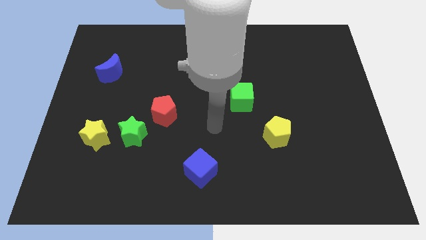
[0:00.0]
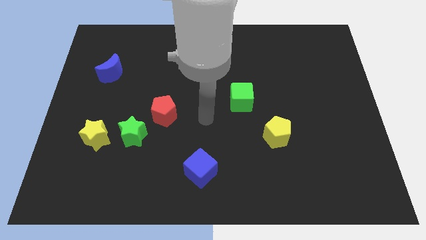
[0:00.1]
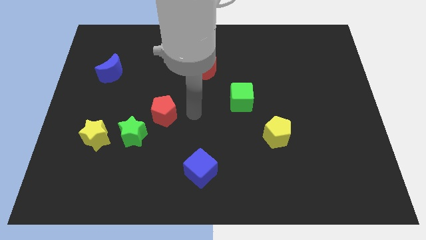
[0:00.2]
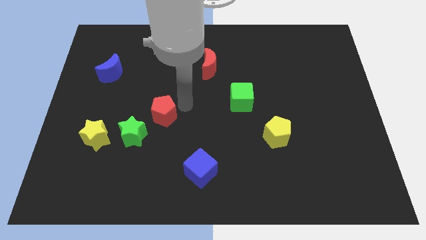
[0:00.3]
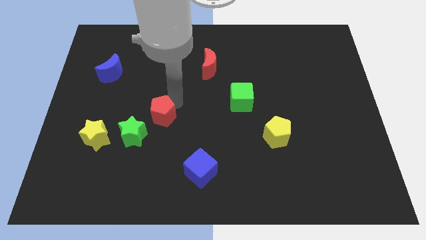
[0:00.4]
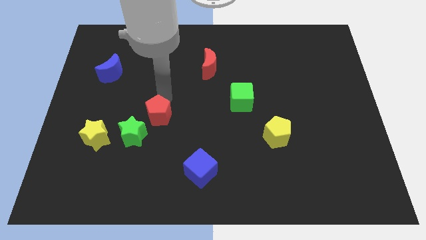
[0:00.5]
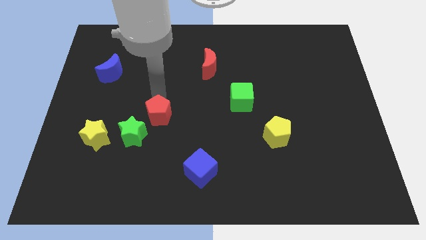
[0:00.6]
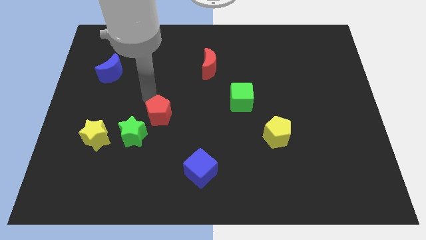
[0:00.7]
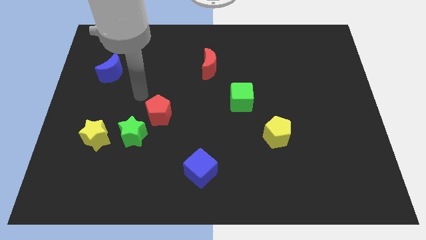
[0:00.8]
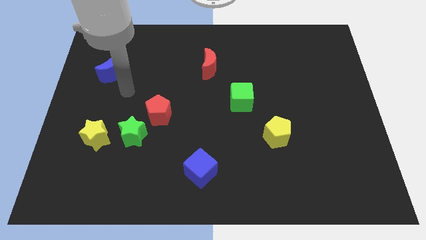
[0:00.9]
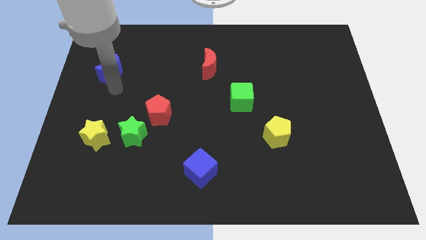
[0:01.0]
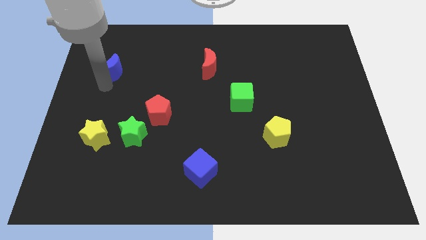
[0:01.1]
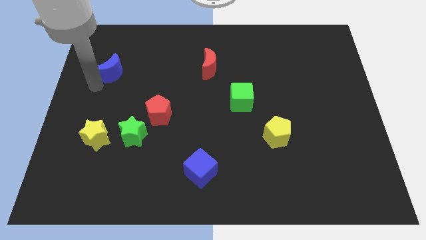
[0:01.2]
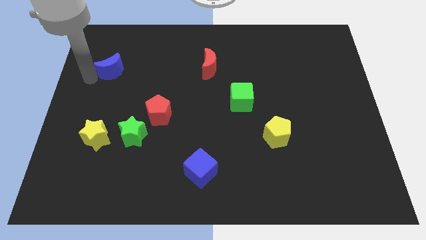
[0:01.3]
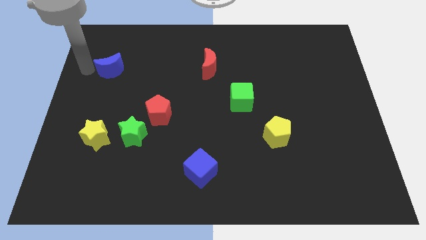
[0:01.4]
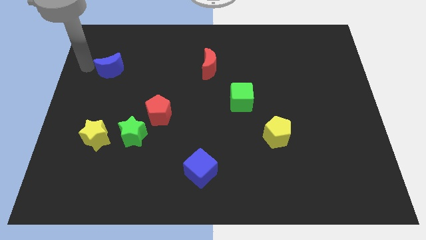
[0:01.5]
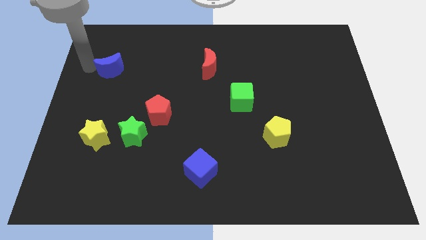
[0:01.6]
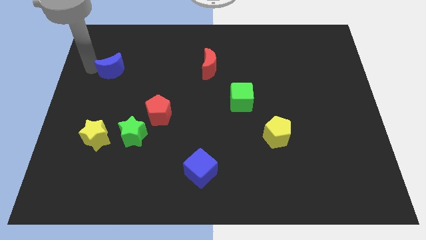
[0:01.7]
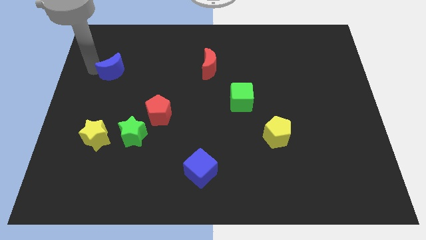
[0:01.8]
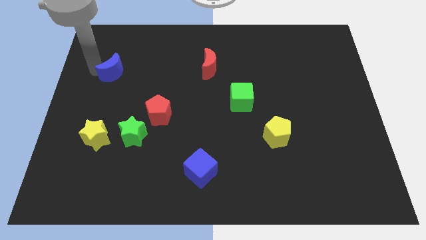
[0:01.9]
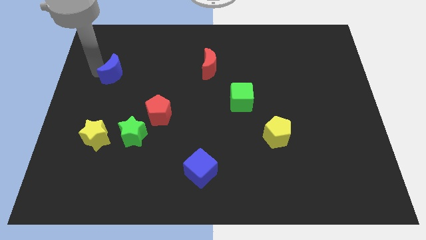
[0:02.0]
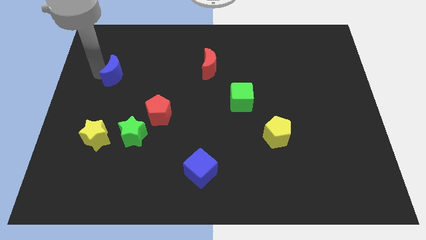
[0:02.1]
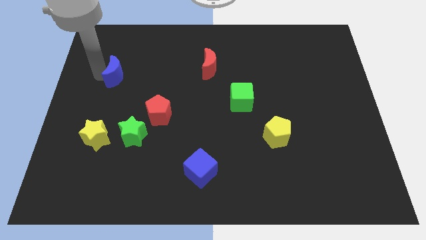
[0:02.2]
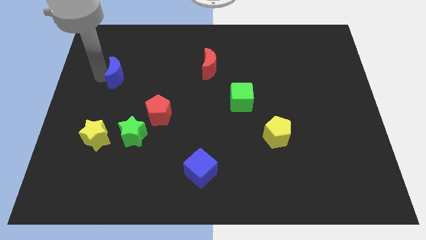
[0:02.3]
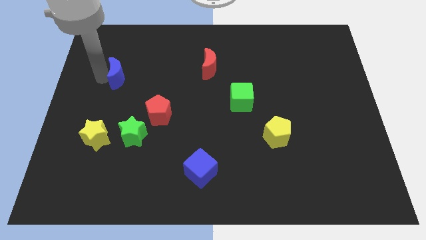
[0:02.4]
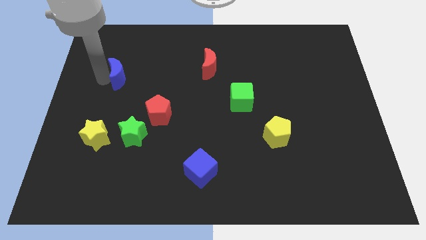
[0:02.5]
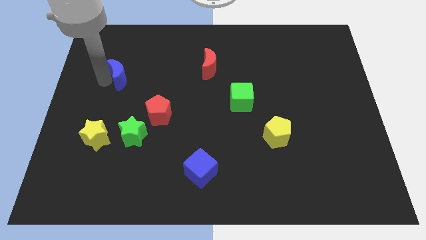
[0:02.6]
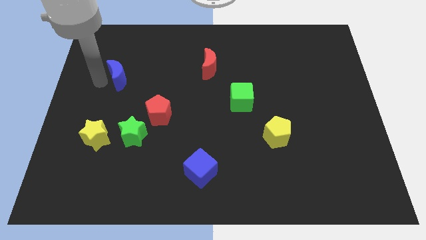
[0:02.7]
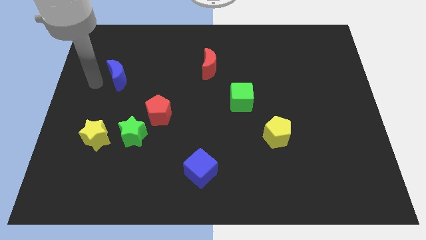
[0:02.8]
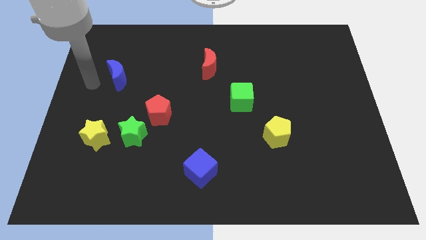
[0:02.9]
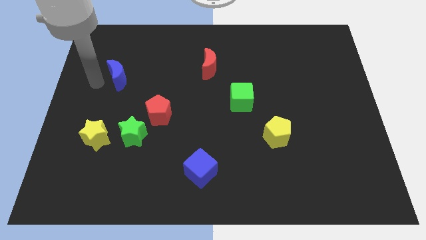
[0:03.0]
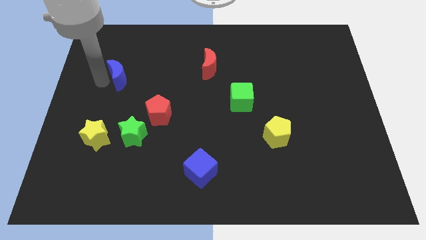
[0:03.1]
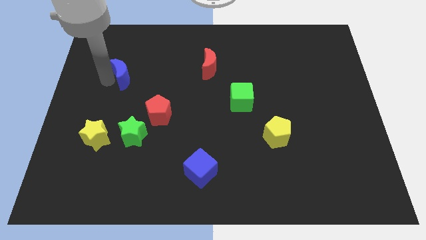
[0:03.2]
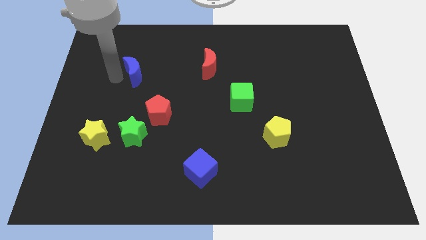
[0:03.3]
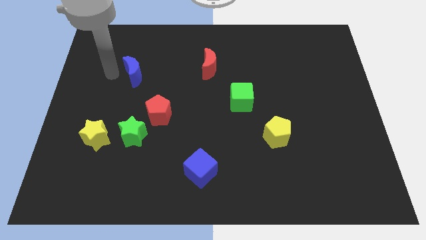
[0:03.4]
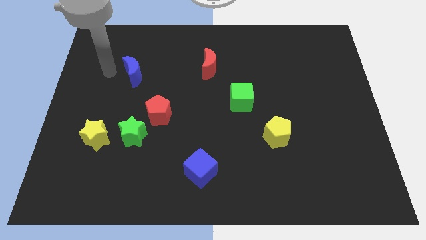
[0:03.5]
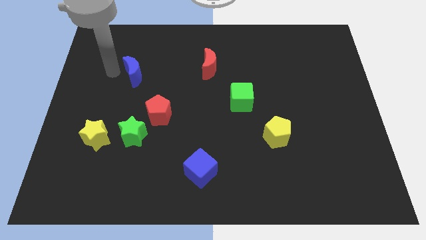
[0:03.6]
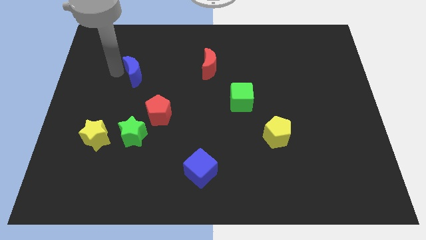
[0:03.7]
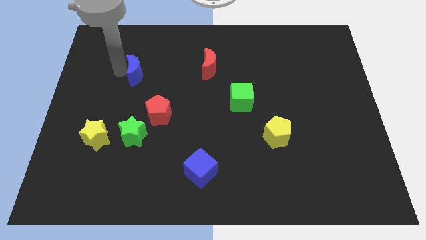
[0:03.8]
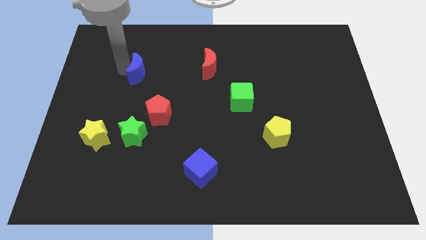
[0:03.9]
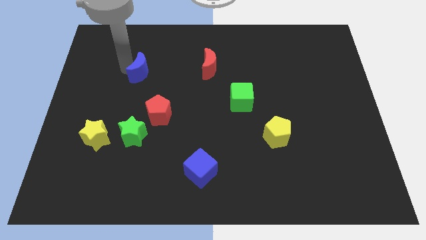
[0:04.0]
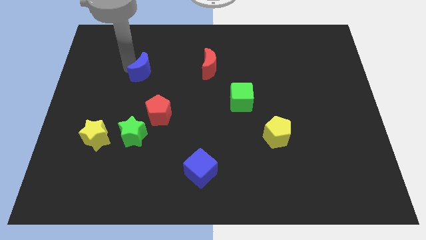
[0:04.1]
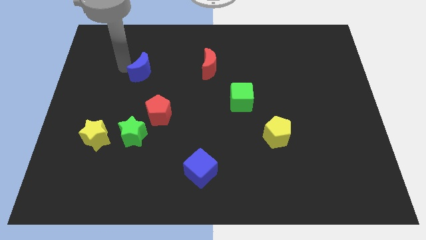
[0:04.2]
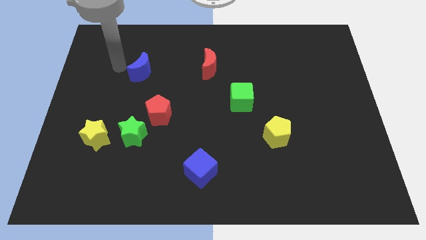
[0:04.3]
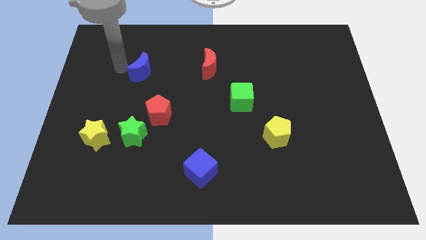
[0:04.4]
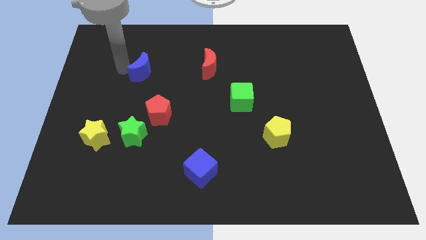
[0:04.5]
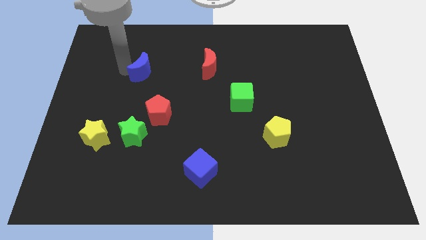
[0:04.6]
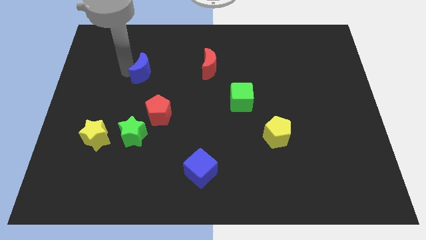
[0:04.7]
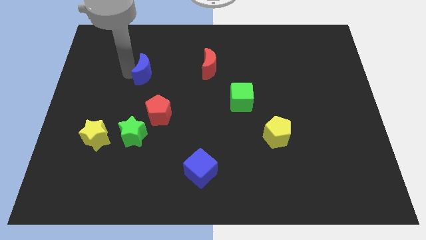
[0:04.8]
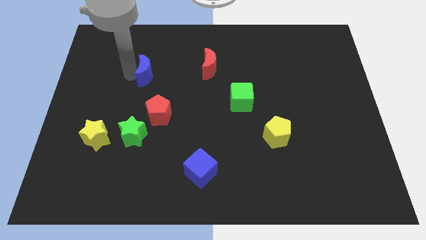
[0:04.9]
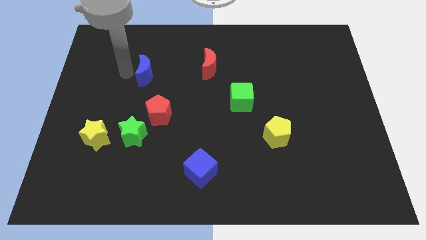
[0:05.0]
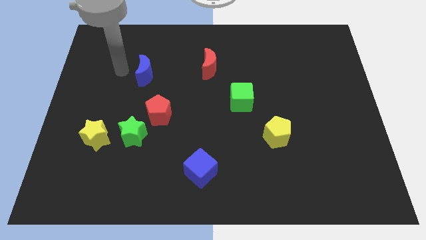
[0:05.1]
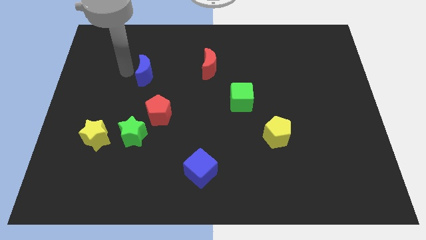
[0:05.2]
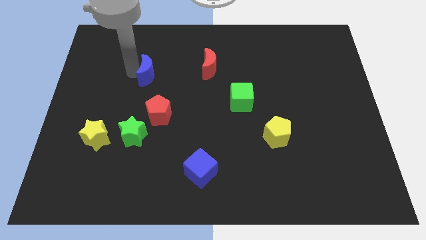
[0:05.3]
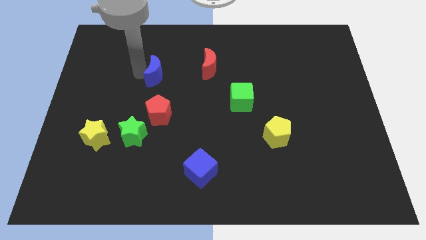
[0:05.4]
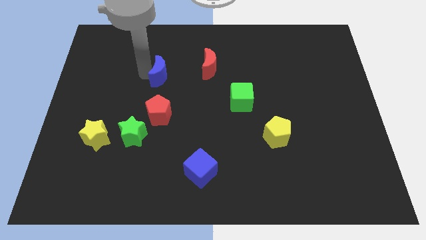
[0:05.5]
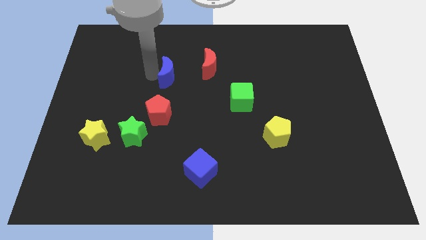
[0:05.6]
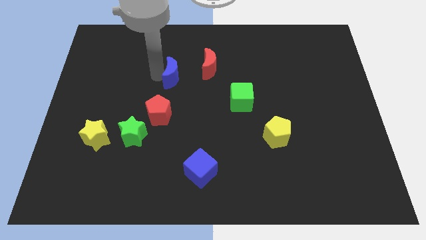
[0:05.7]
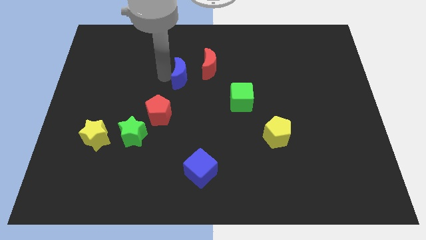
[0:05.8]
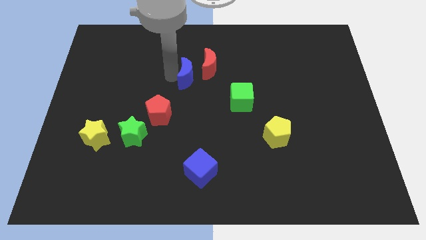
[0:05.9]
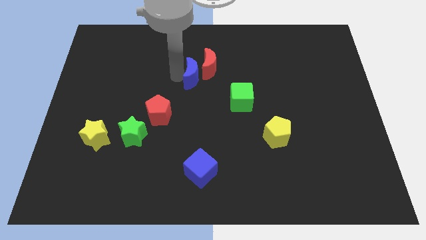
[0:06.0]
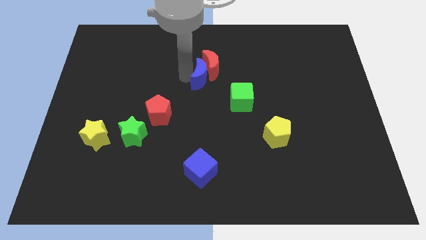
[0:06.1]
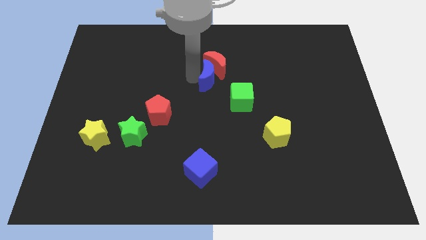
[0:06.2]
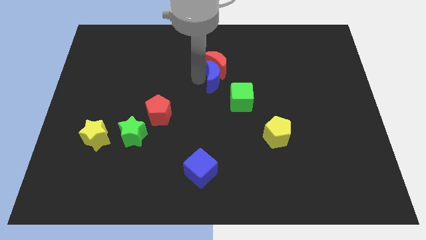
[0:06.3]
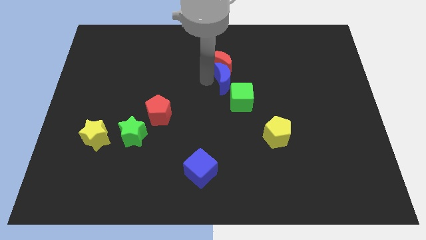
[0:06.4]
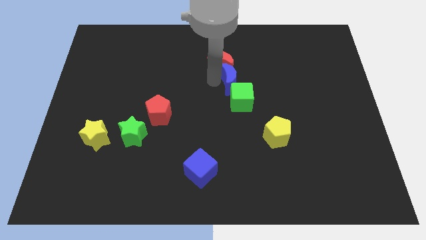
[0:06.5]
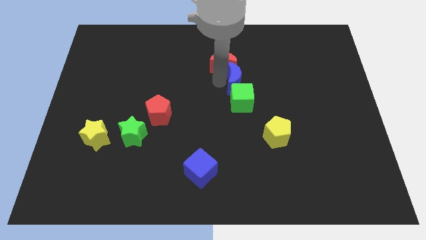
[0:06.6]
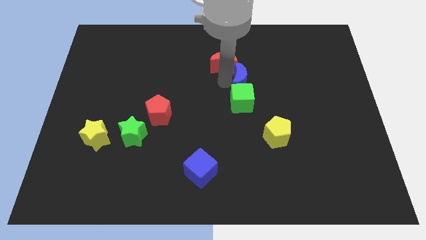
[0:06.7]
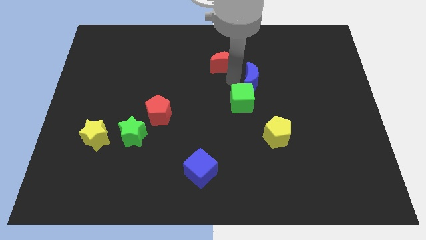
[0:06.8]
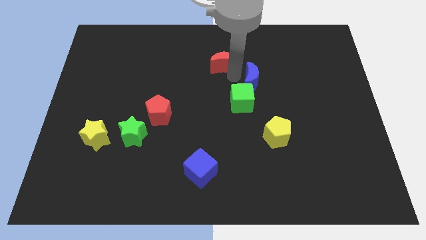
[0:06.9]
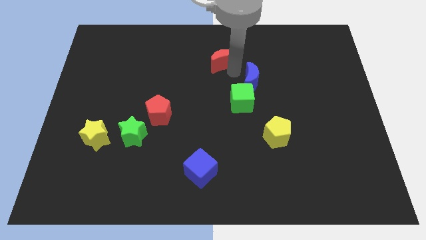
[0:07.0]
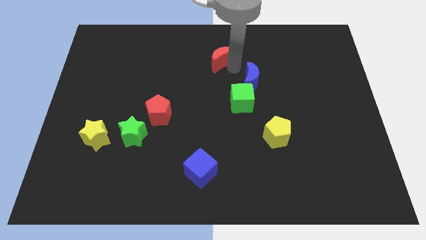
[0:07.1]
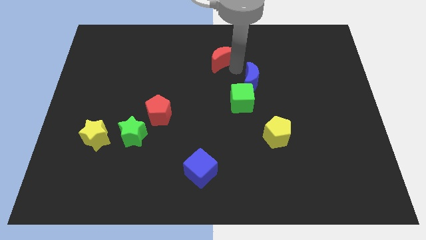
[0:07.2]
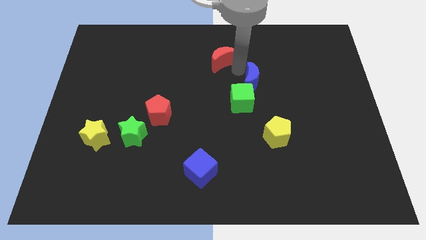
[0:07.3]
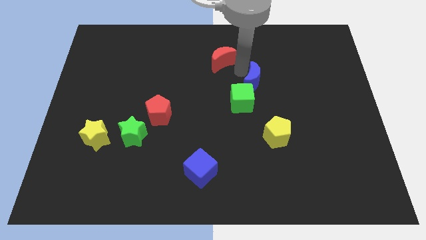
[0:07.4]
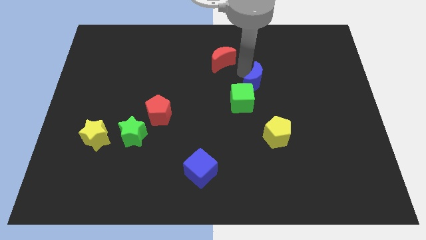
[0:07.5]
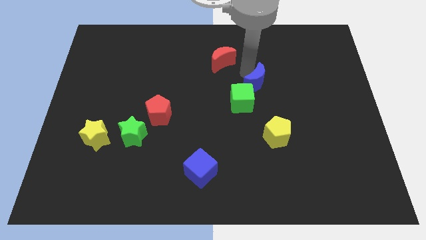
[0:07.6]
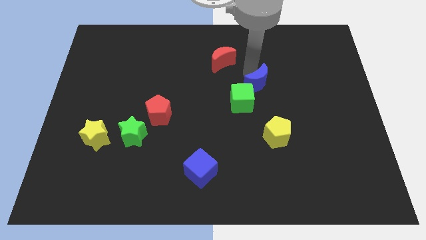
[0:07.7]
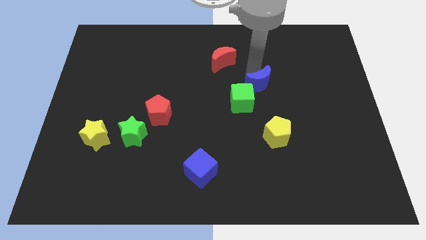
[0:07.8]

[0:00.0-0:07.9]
put the blue moon above the yellow pentagon
